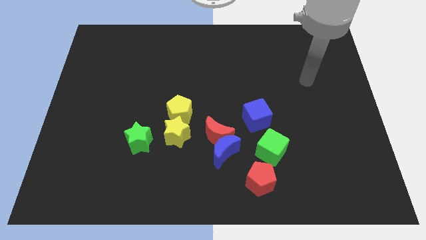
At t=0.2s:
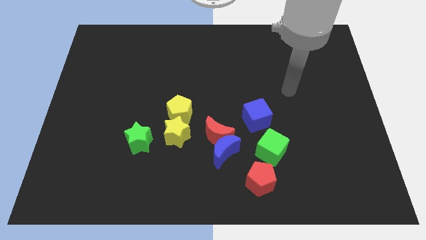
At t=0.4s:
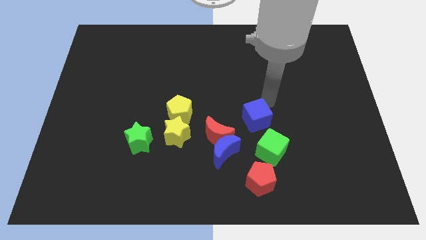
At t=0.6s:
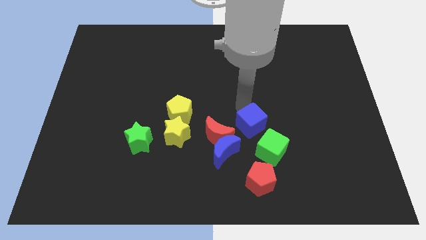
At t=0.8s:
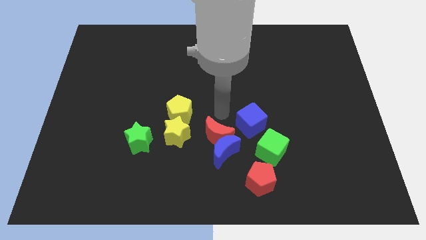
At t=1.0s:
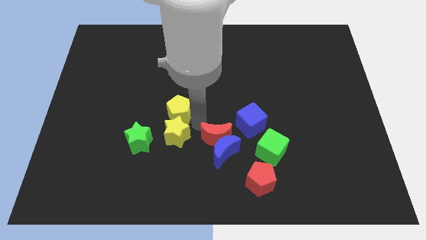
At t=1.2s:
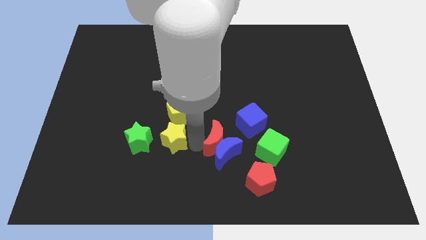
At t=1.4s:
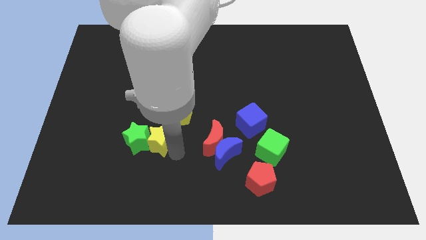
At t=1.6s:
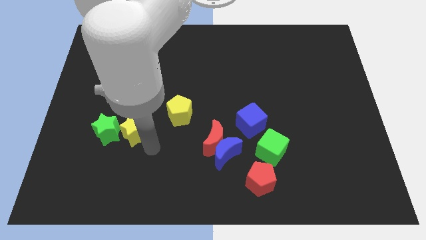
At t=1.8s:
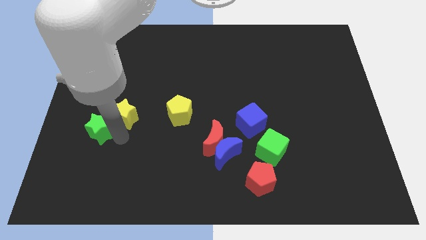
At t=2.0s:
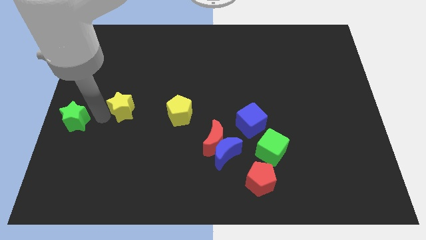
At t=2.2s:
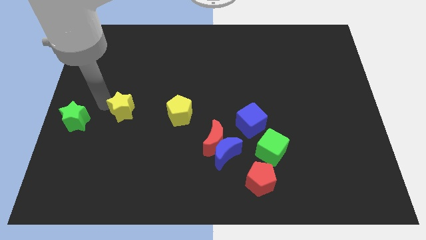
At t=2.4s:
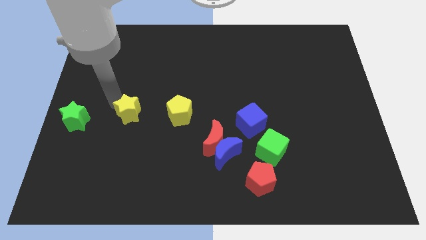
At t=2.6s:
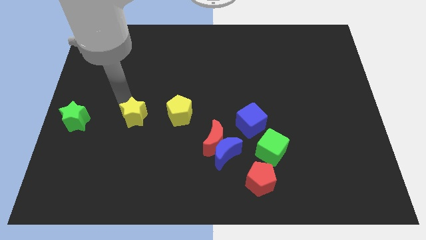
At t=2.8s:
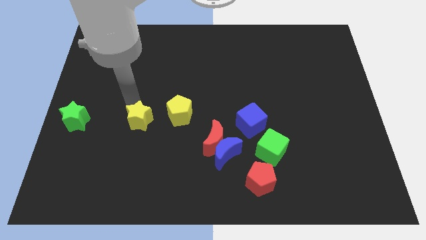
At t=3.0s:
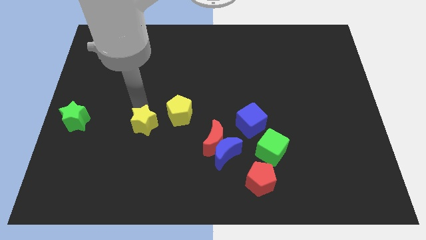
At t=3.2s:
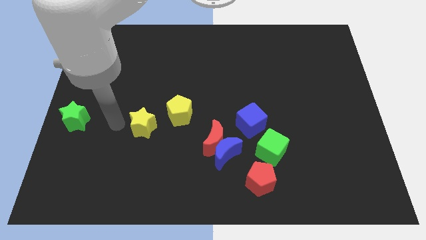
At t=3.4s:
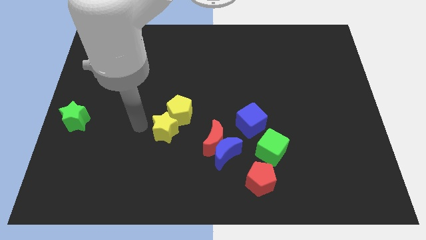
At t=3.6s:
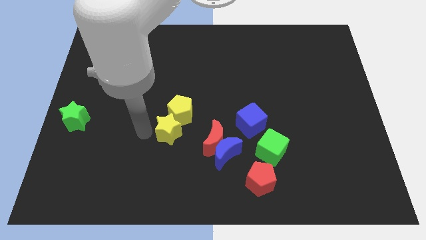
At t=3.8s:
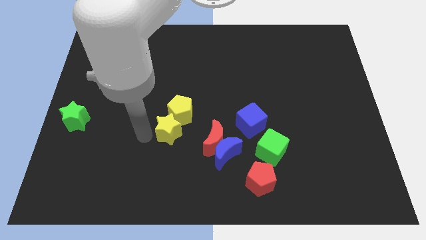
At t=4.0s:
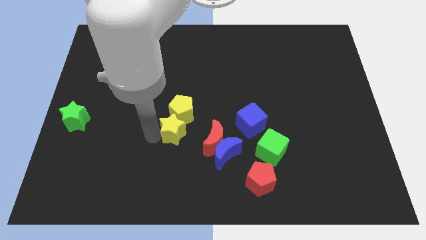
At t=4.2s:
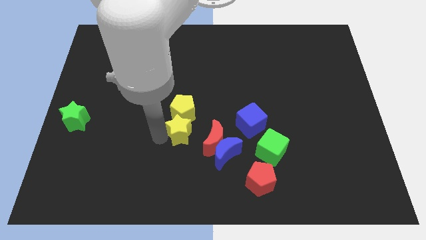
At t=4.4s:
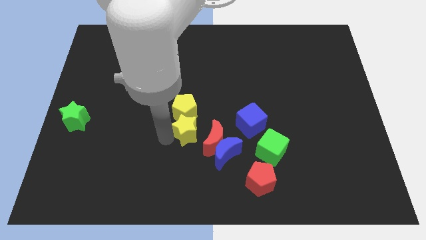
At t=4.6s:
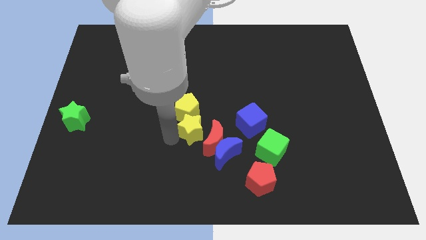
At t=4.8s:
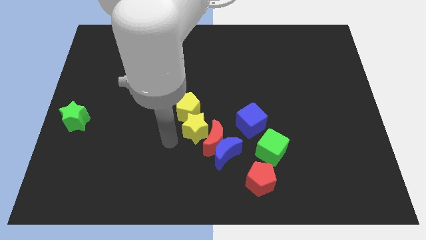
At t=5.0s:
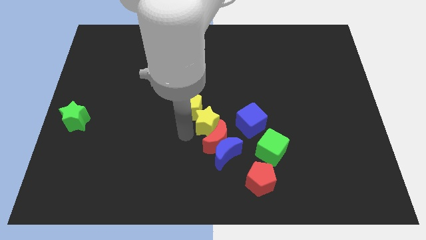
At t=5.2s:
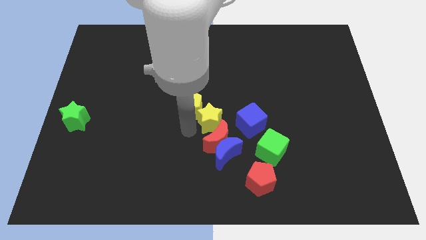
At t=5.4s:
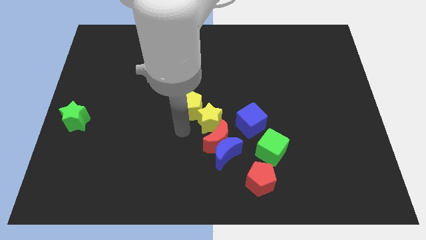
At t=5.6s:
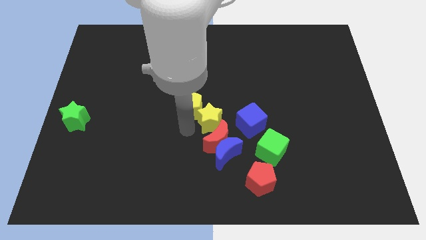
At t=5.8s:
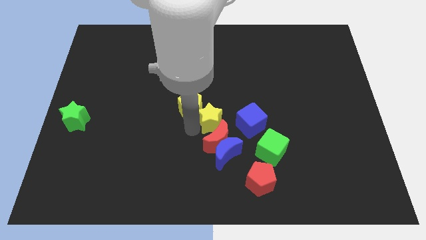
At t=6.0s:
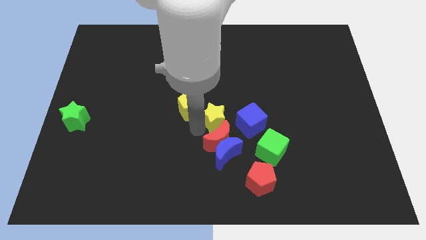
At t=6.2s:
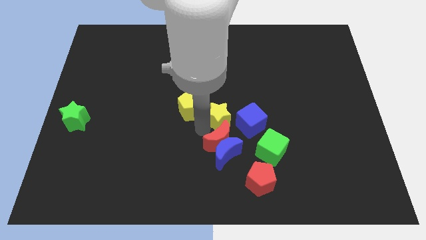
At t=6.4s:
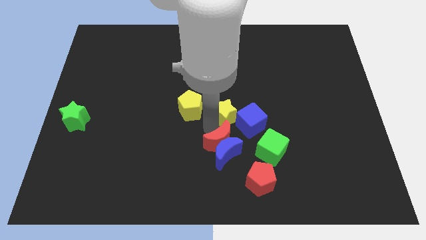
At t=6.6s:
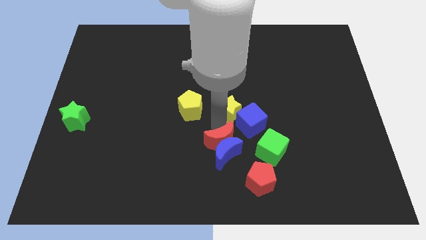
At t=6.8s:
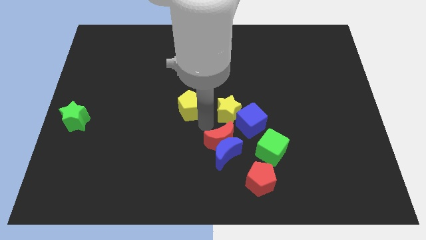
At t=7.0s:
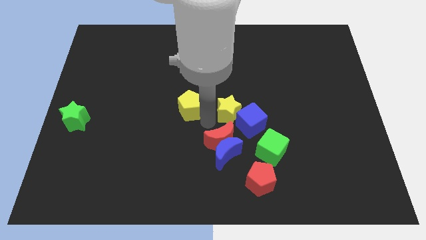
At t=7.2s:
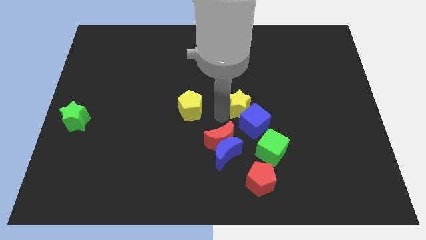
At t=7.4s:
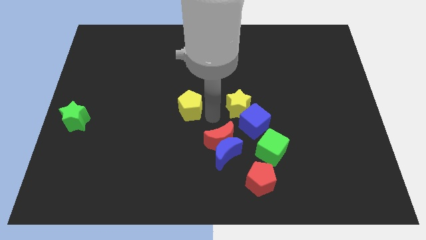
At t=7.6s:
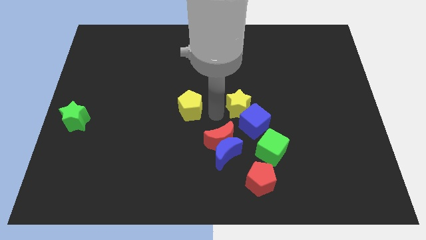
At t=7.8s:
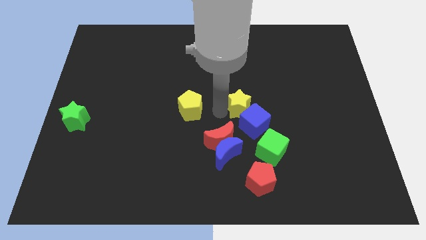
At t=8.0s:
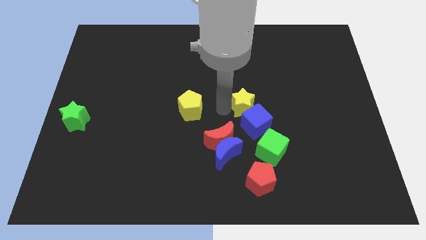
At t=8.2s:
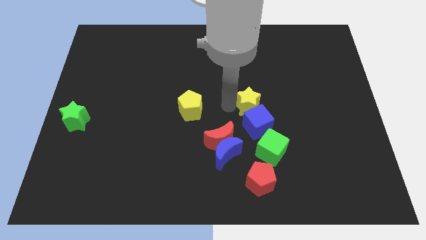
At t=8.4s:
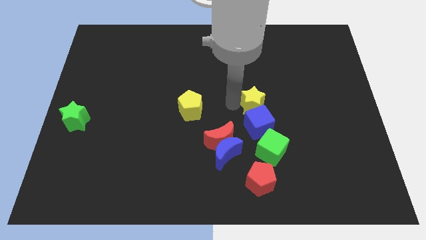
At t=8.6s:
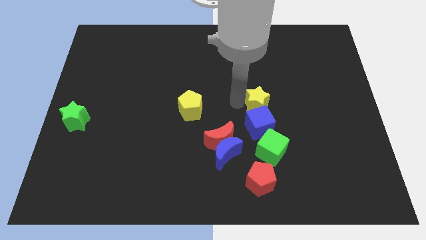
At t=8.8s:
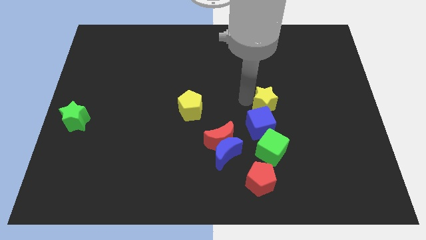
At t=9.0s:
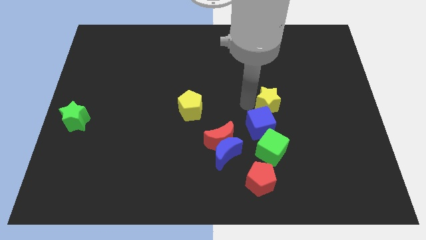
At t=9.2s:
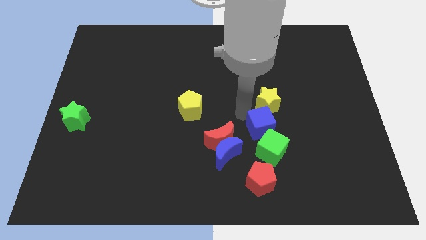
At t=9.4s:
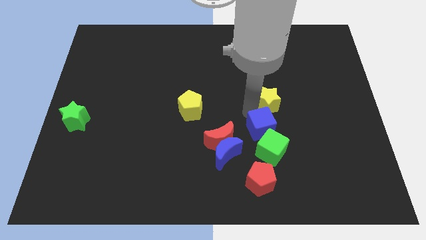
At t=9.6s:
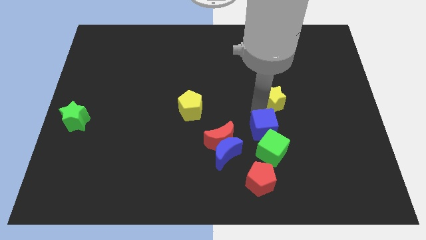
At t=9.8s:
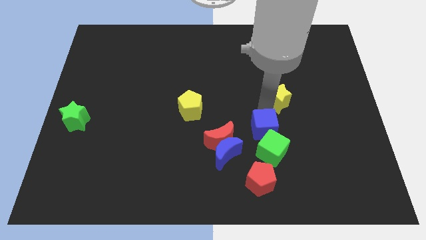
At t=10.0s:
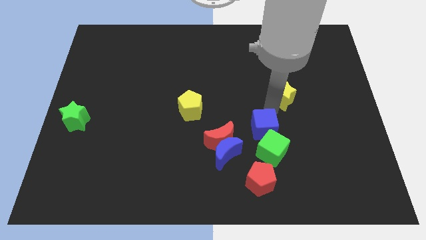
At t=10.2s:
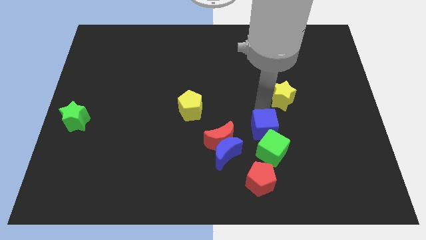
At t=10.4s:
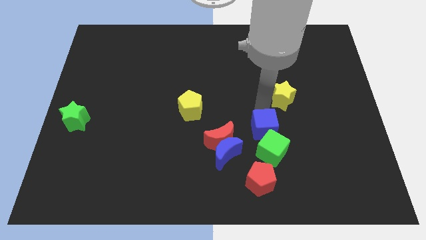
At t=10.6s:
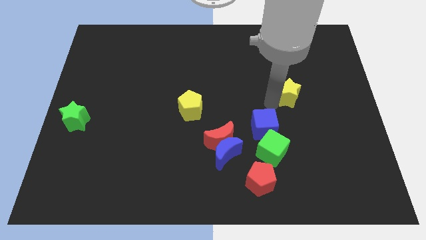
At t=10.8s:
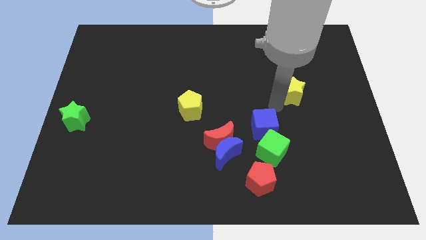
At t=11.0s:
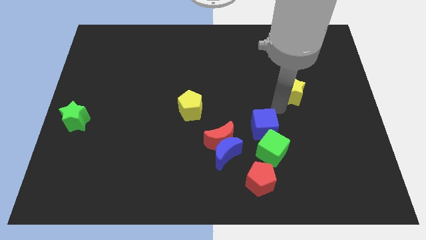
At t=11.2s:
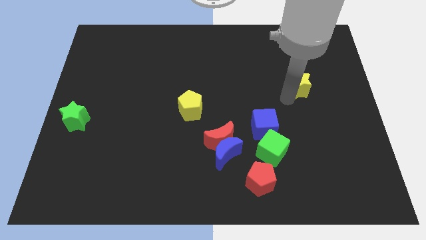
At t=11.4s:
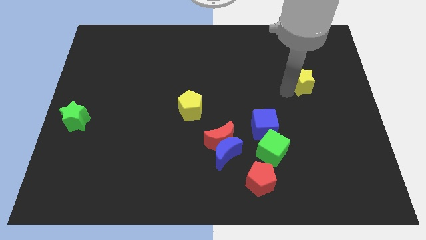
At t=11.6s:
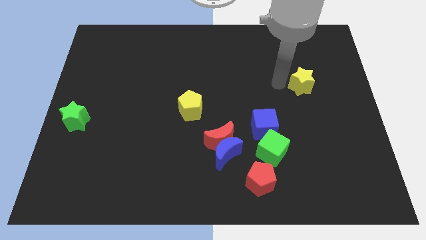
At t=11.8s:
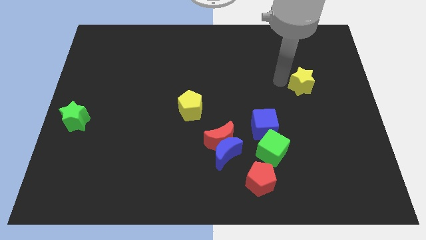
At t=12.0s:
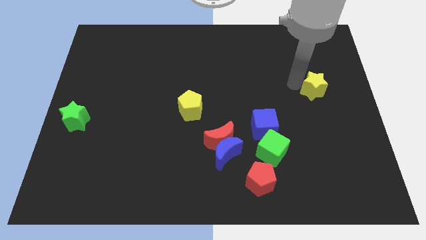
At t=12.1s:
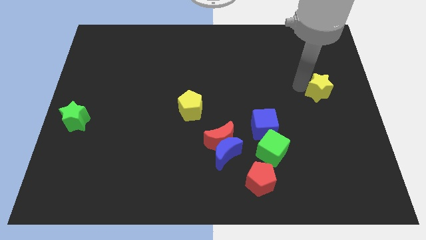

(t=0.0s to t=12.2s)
slide the yellow star to the center right

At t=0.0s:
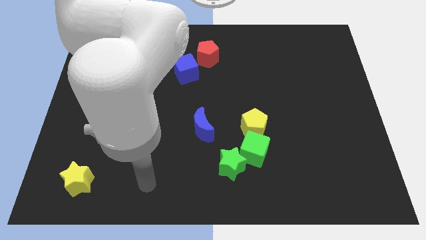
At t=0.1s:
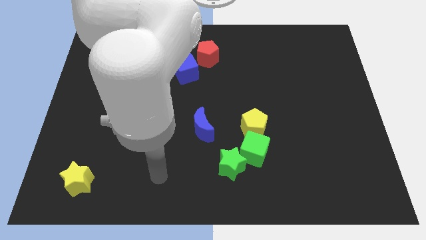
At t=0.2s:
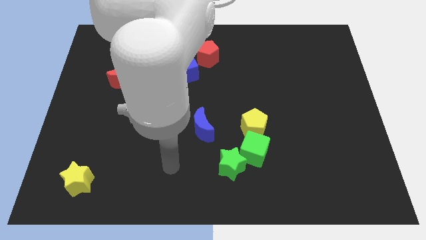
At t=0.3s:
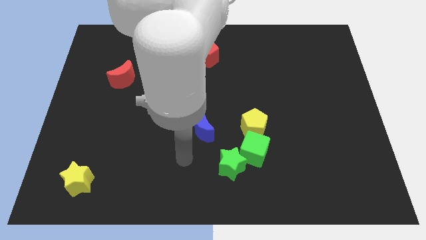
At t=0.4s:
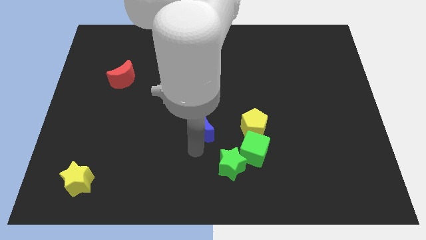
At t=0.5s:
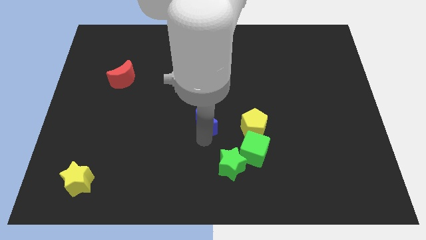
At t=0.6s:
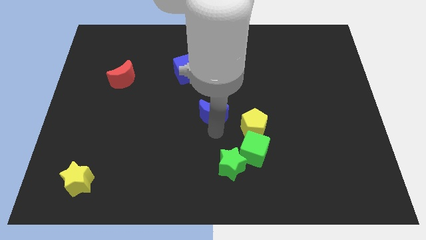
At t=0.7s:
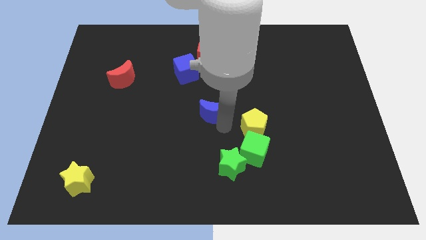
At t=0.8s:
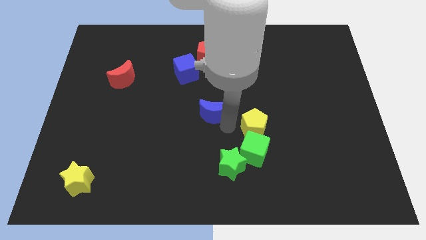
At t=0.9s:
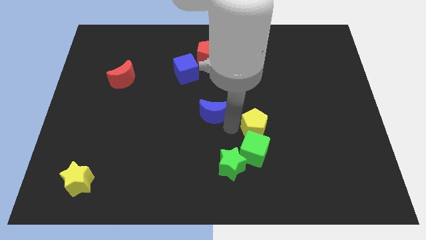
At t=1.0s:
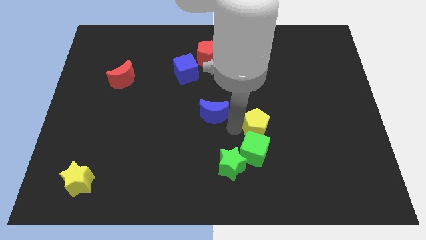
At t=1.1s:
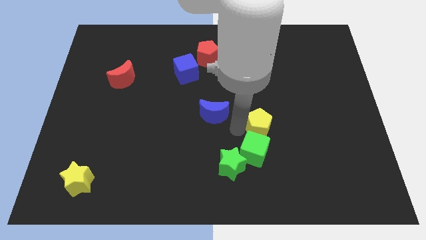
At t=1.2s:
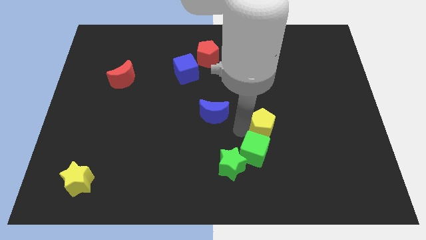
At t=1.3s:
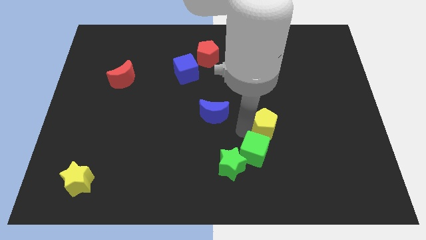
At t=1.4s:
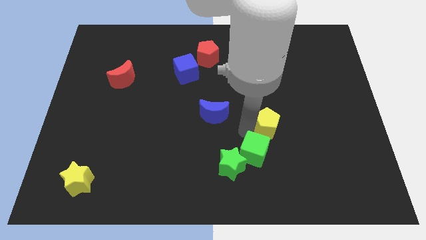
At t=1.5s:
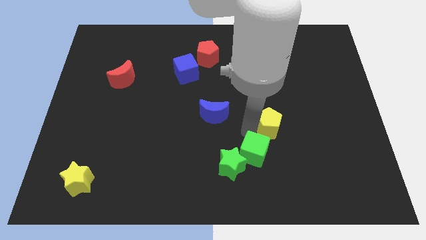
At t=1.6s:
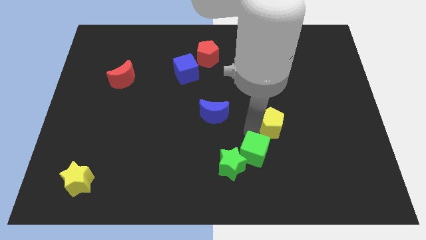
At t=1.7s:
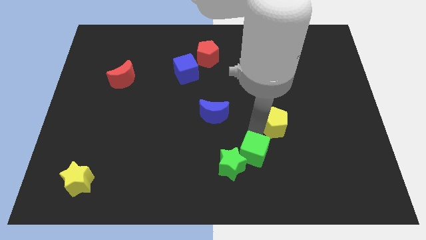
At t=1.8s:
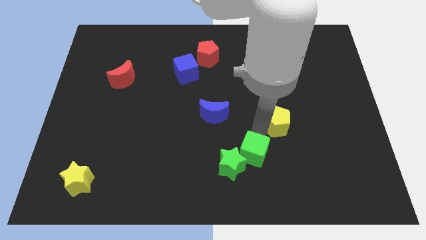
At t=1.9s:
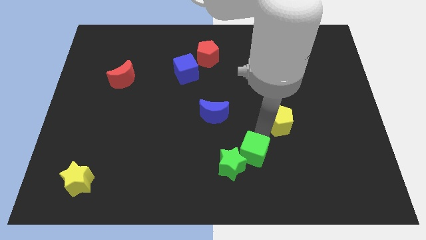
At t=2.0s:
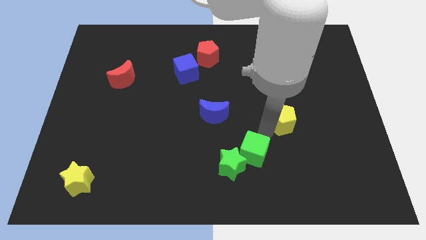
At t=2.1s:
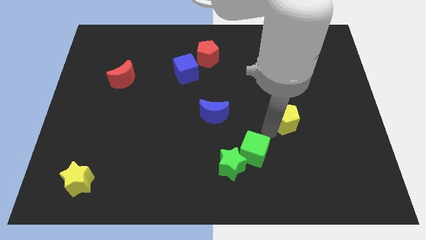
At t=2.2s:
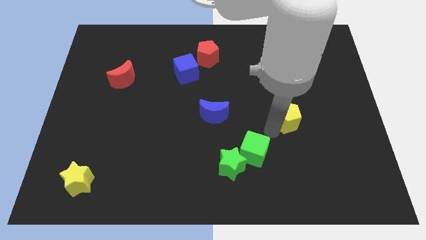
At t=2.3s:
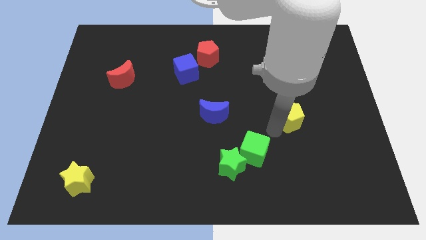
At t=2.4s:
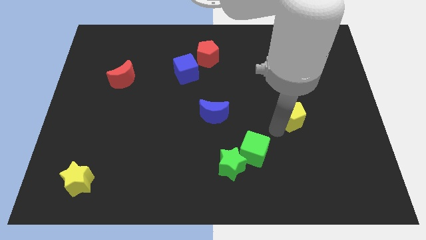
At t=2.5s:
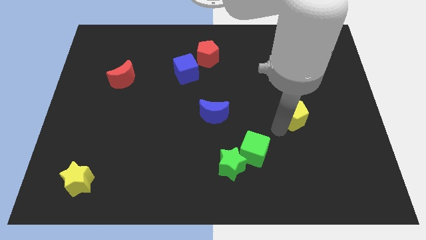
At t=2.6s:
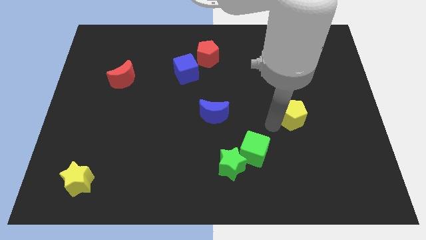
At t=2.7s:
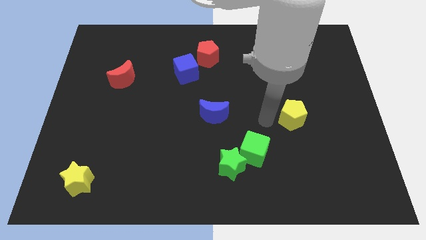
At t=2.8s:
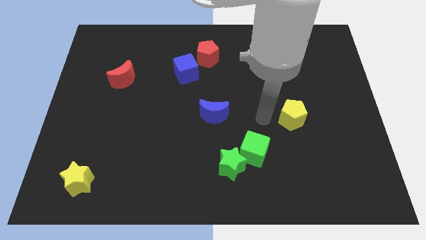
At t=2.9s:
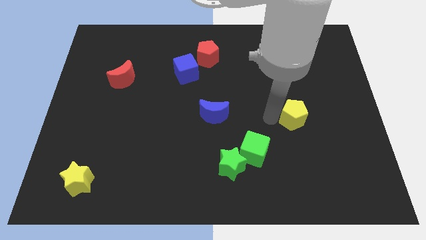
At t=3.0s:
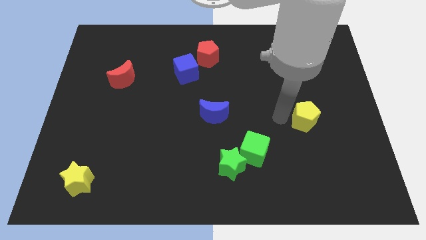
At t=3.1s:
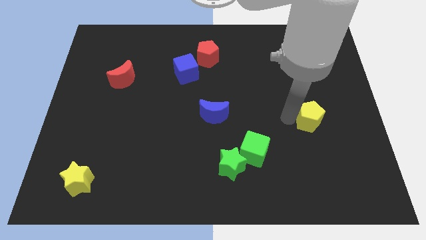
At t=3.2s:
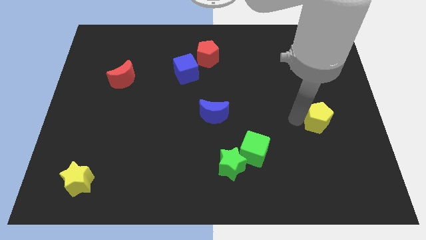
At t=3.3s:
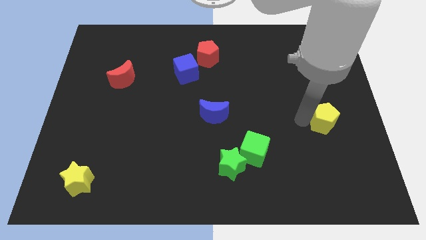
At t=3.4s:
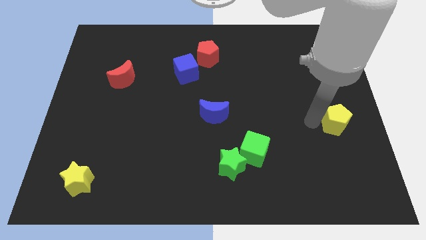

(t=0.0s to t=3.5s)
slide the yellow pentagon to the center right
